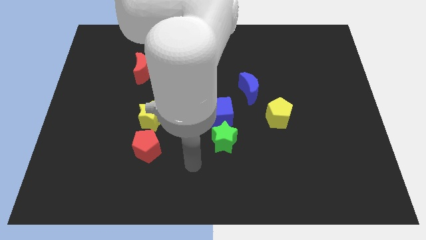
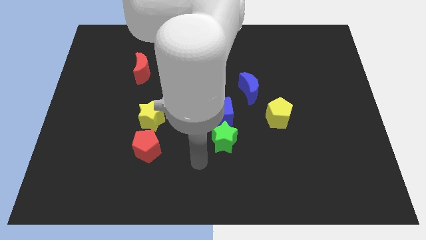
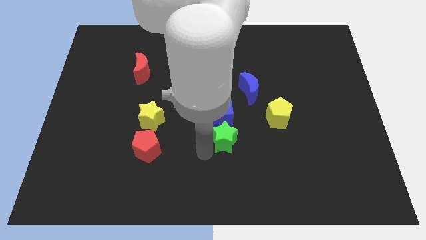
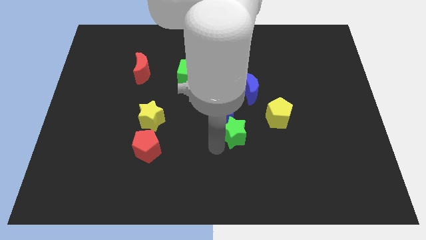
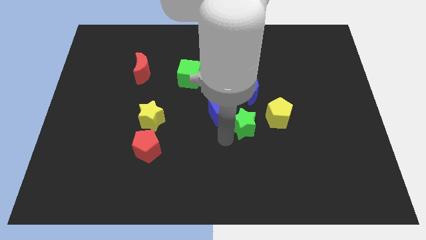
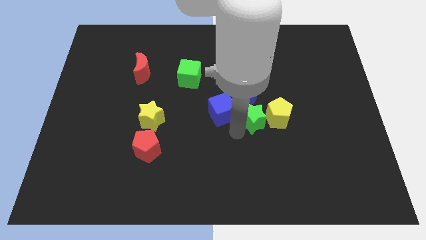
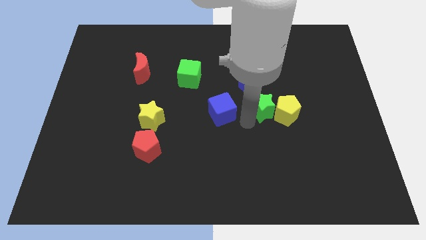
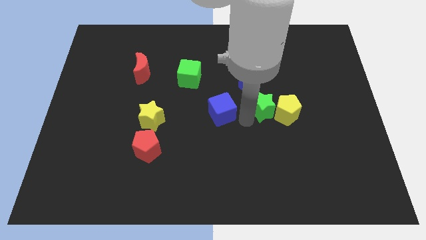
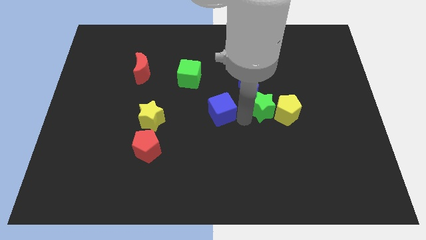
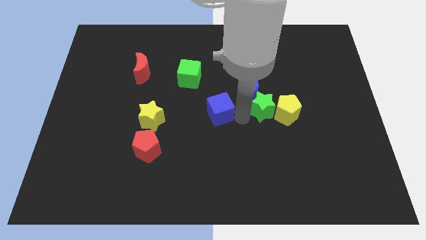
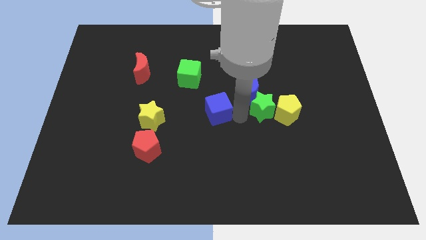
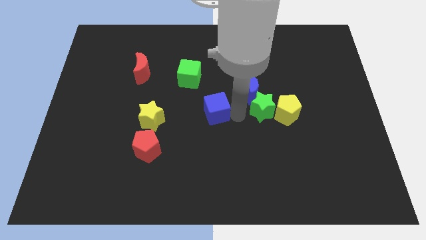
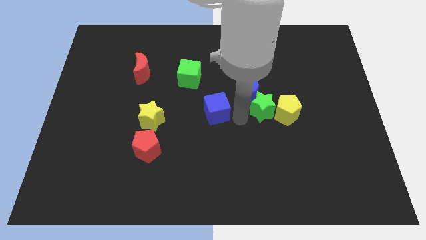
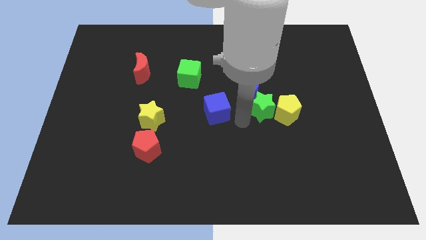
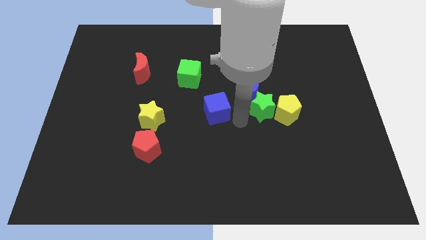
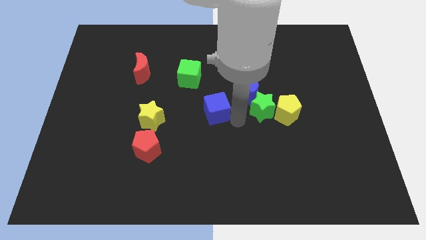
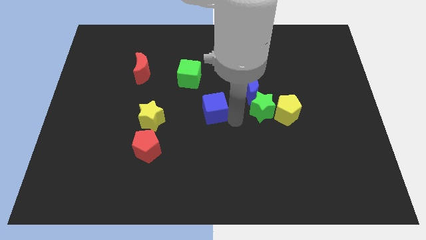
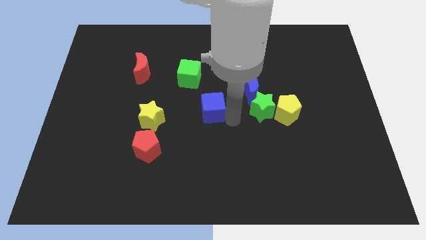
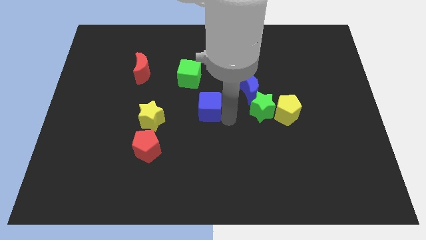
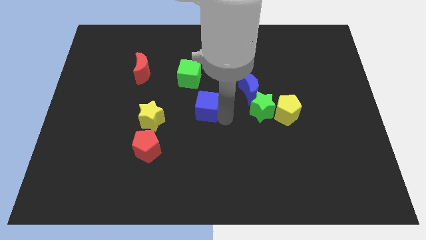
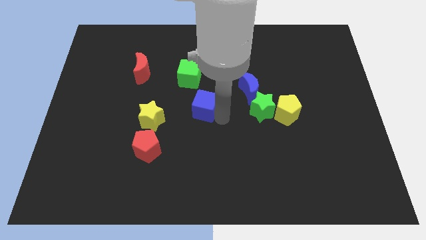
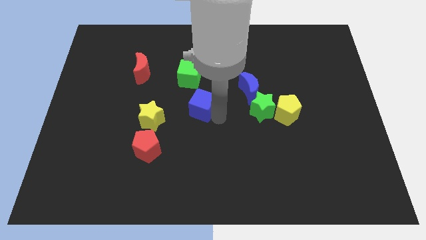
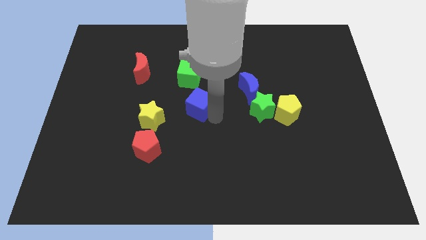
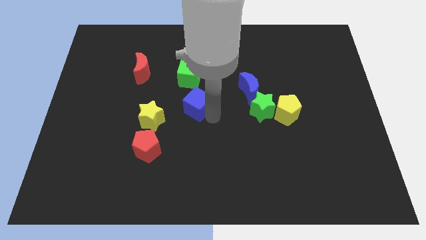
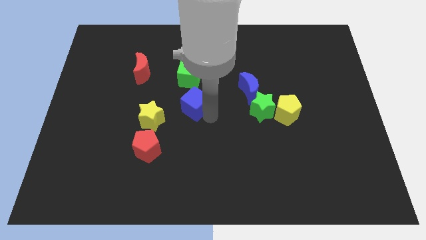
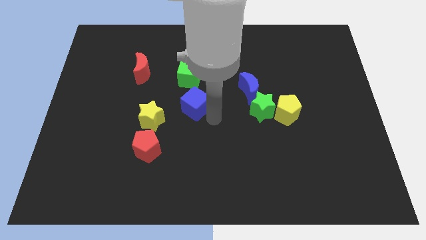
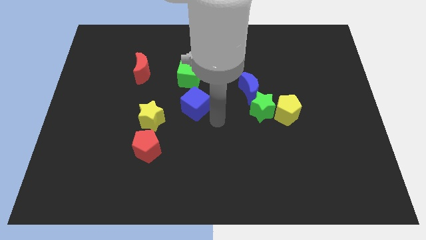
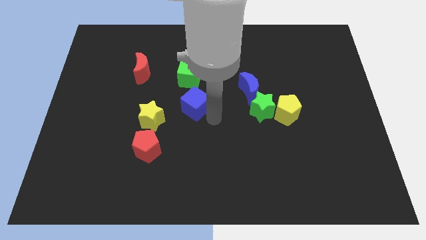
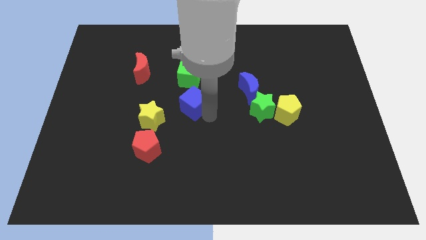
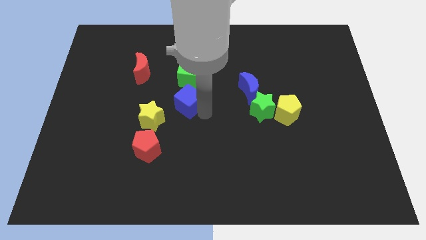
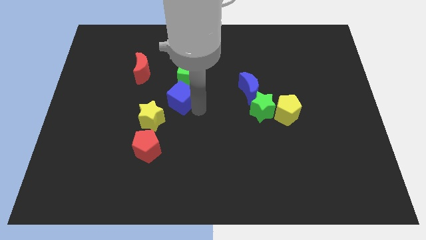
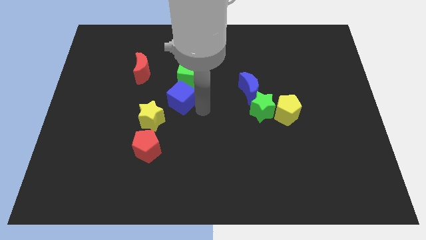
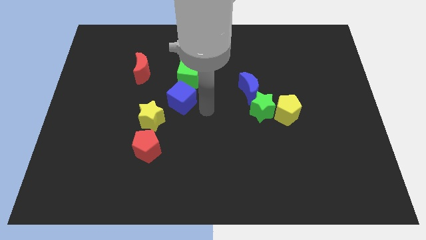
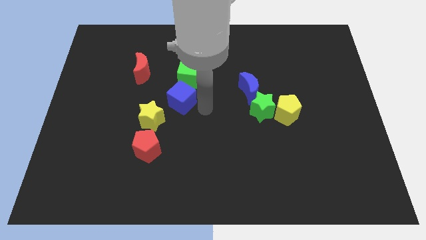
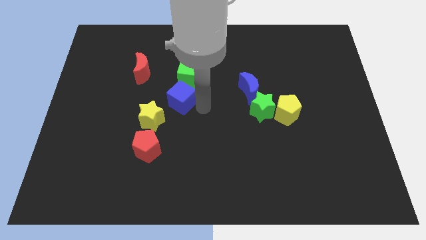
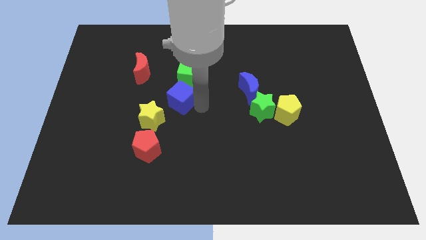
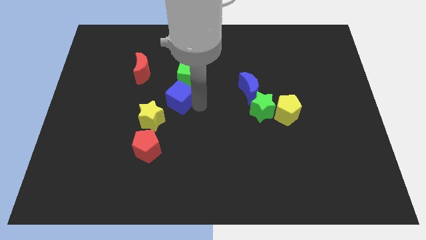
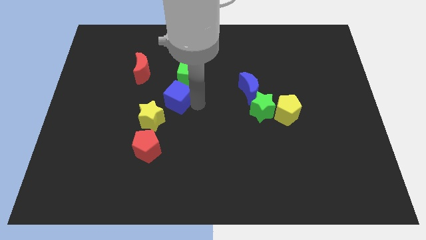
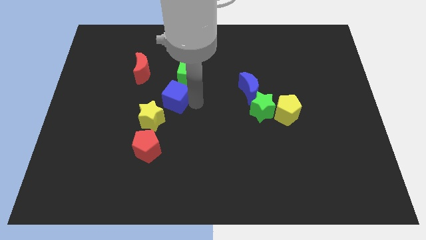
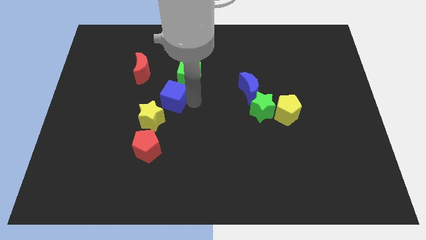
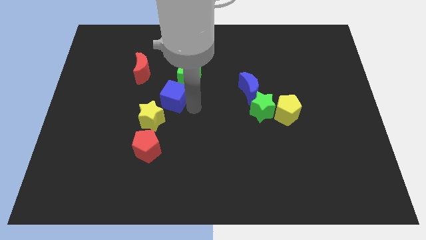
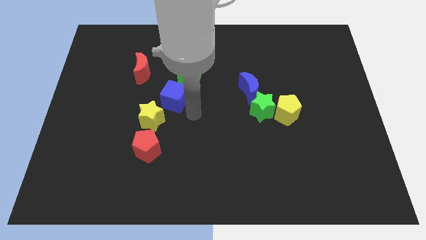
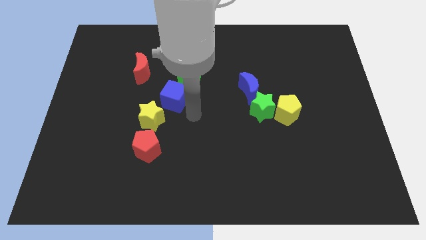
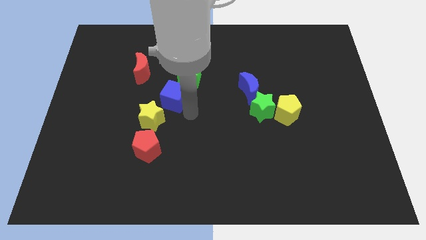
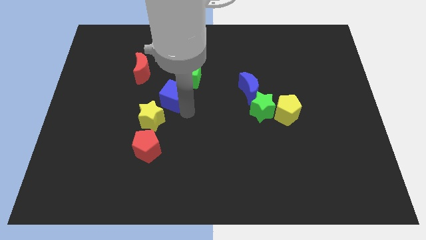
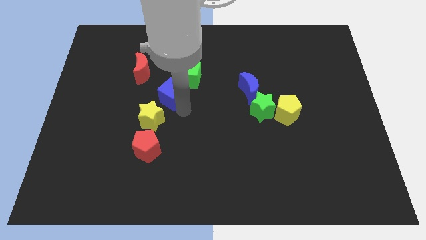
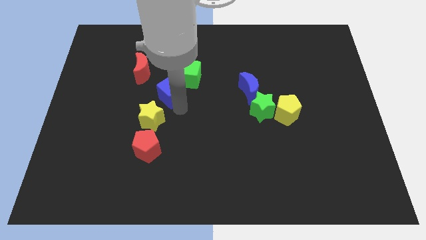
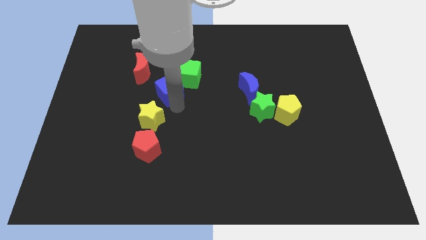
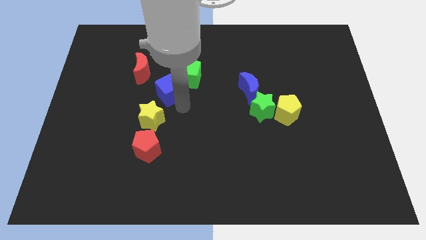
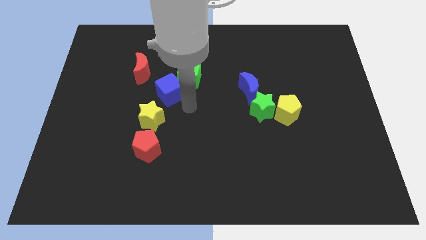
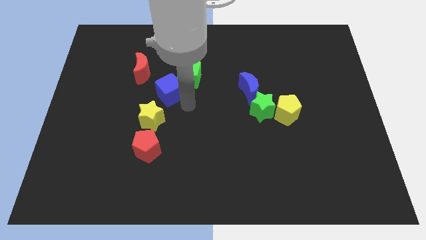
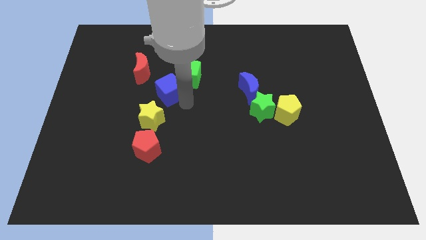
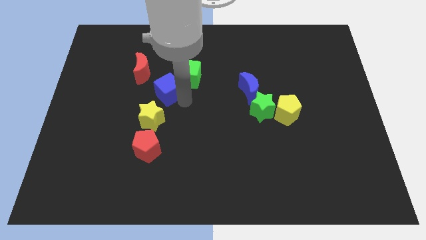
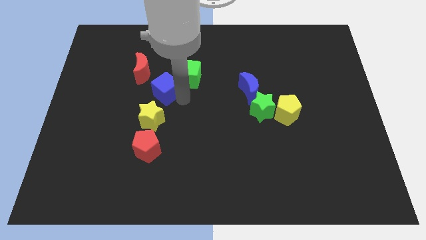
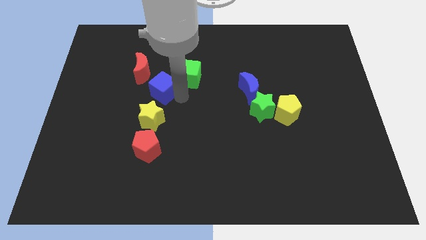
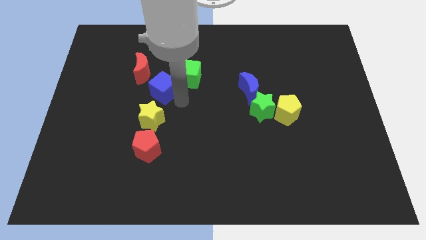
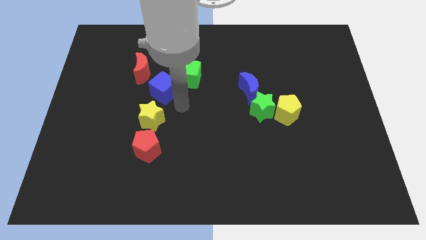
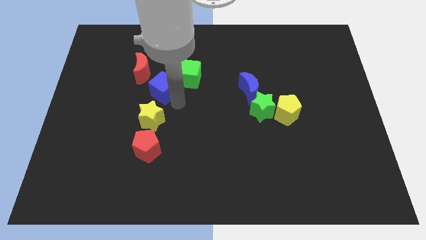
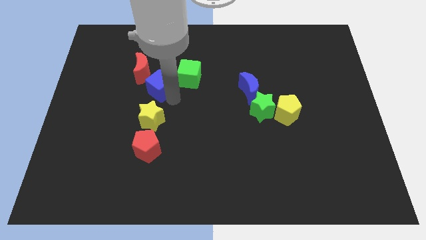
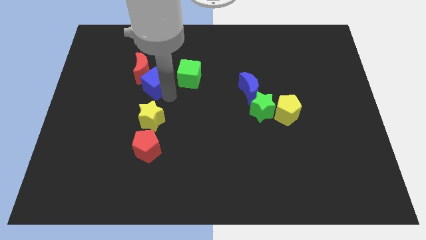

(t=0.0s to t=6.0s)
put the blue cube next to the red moon
